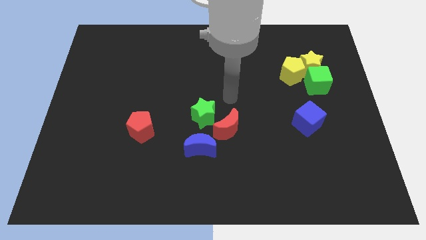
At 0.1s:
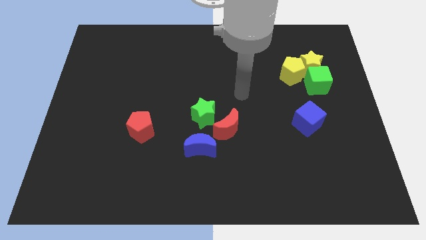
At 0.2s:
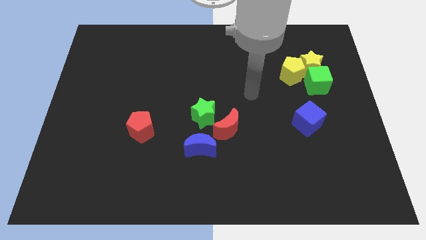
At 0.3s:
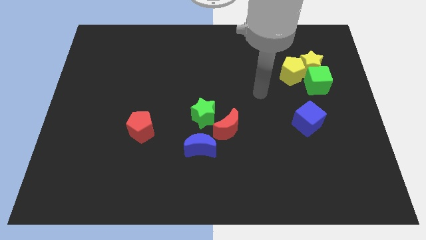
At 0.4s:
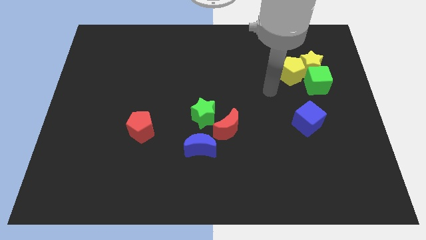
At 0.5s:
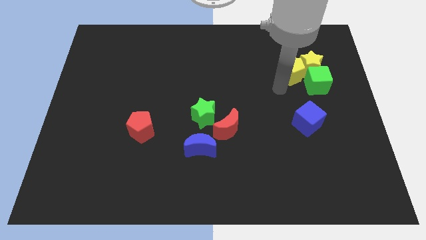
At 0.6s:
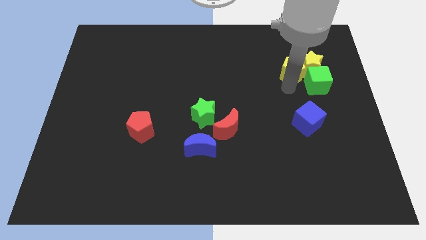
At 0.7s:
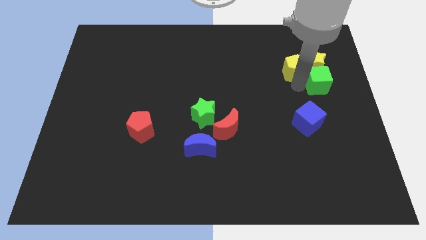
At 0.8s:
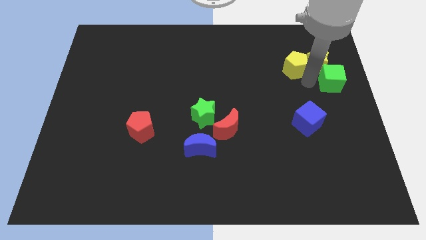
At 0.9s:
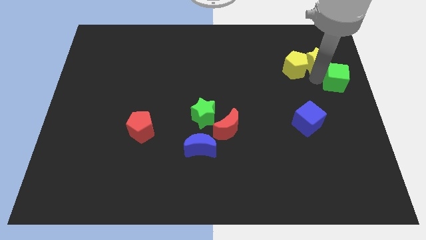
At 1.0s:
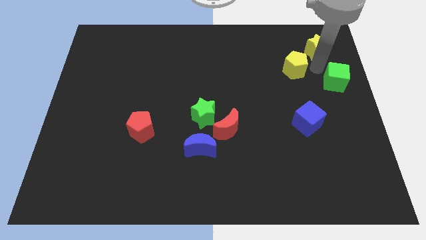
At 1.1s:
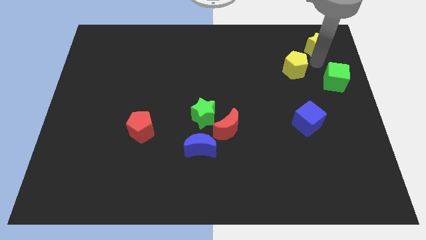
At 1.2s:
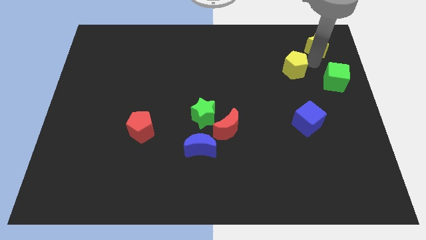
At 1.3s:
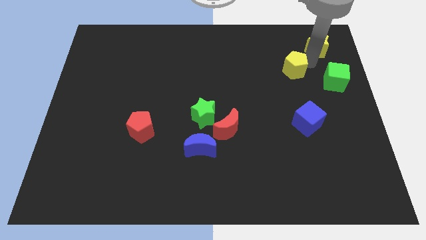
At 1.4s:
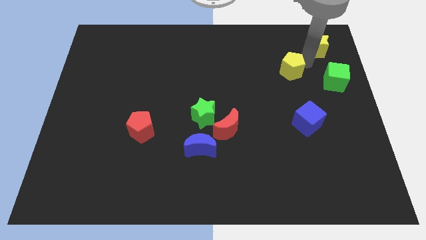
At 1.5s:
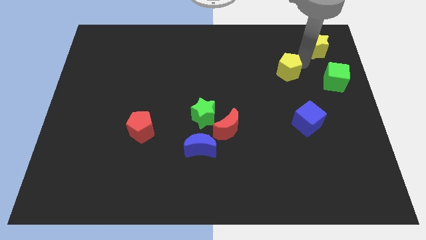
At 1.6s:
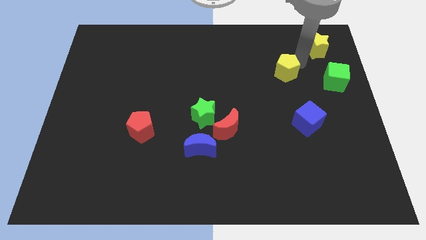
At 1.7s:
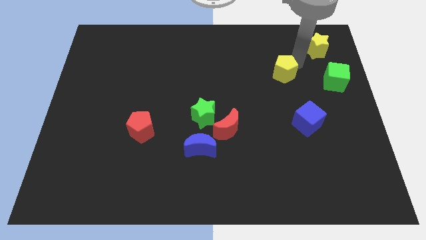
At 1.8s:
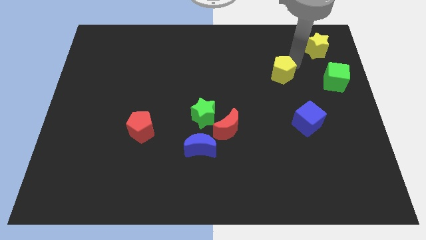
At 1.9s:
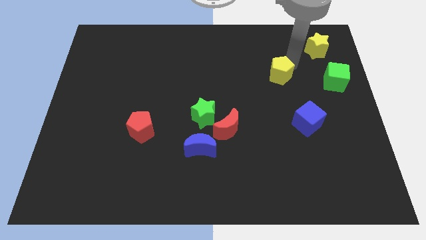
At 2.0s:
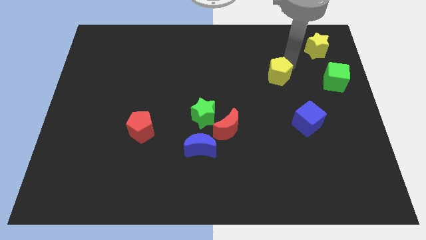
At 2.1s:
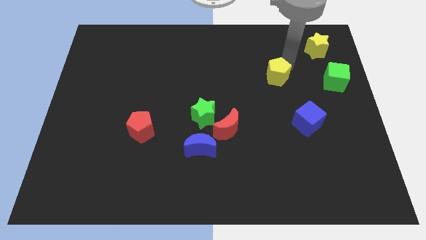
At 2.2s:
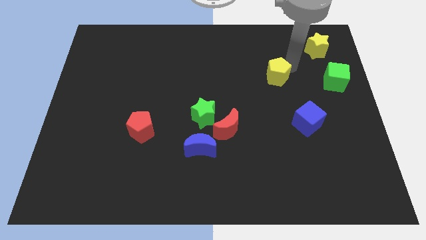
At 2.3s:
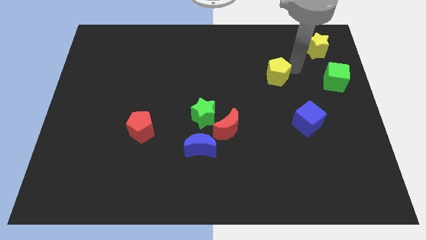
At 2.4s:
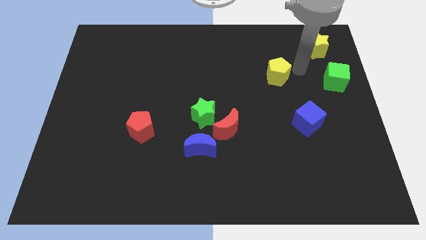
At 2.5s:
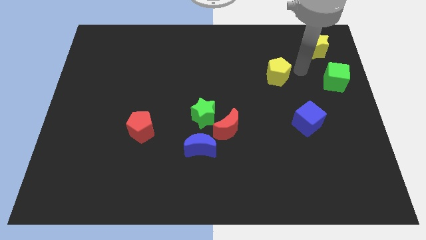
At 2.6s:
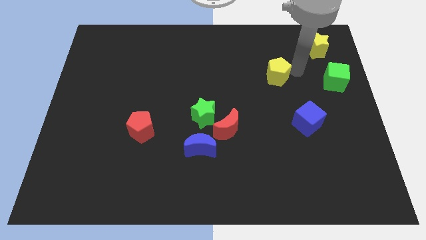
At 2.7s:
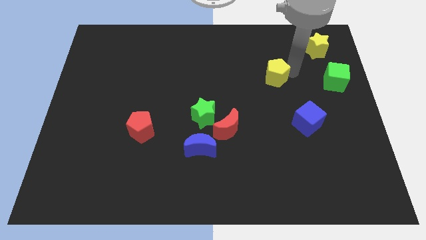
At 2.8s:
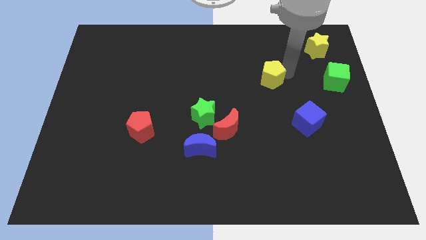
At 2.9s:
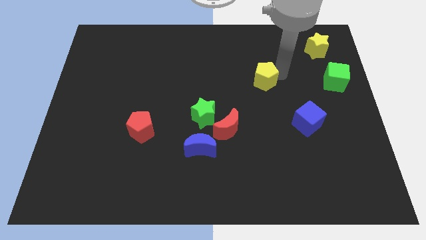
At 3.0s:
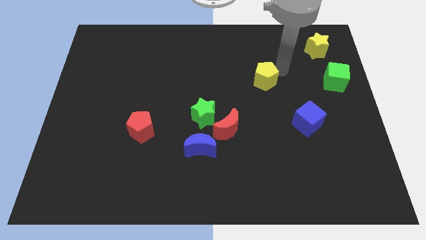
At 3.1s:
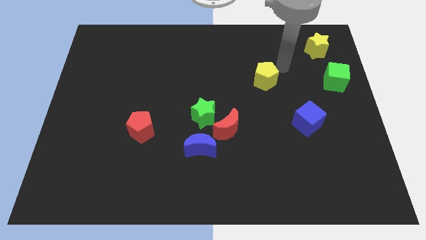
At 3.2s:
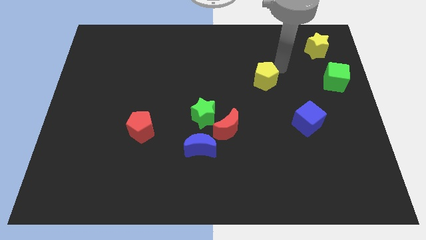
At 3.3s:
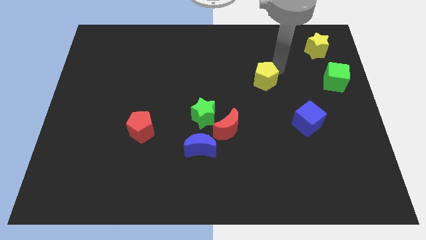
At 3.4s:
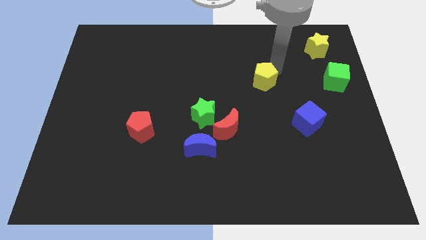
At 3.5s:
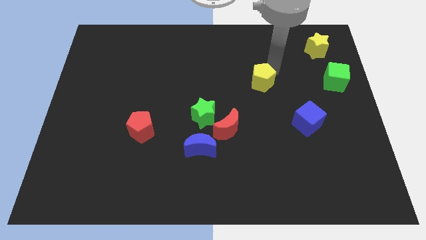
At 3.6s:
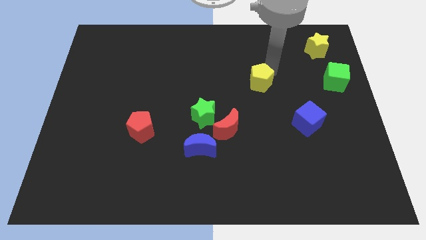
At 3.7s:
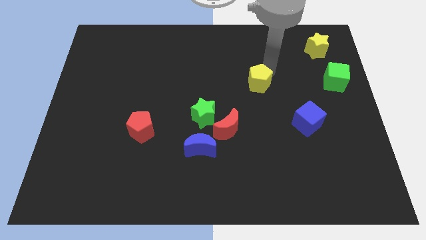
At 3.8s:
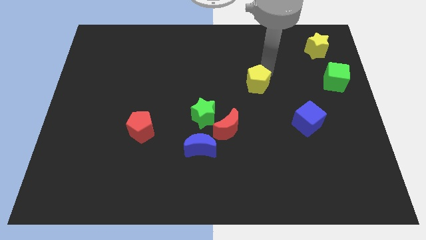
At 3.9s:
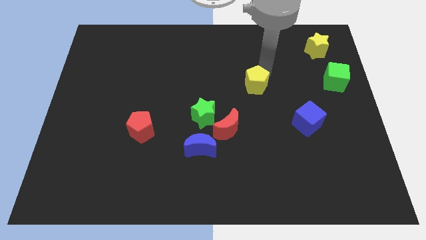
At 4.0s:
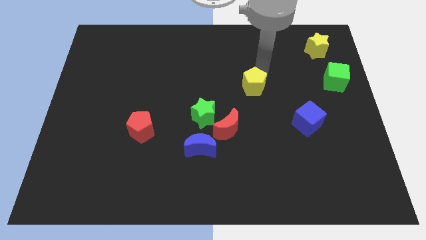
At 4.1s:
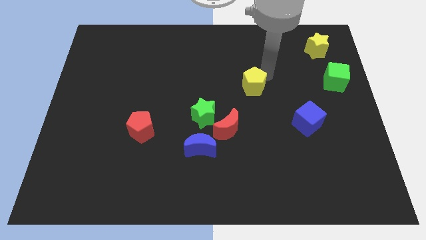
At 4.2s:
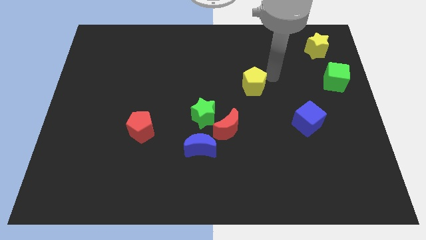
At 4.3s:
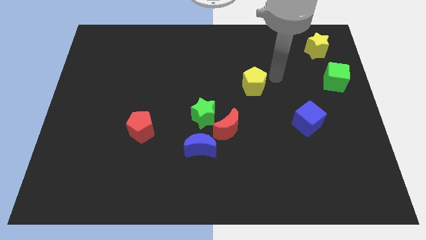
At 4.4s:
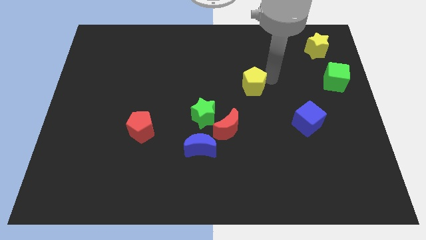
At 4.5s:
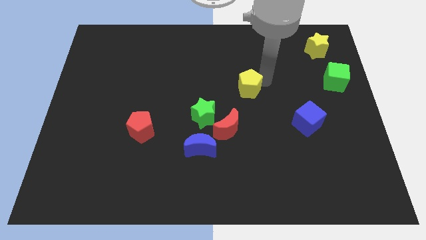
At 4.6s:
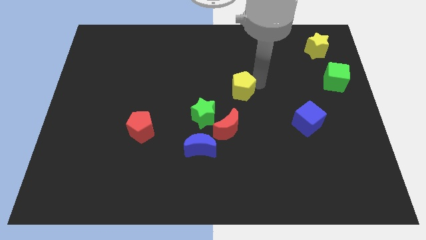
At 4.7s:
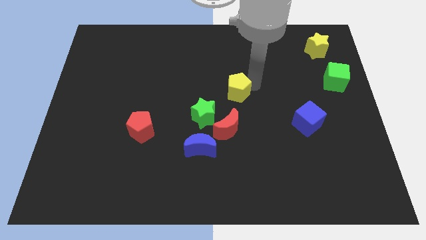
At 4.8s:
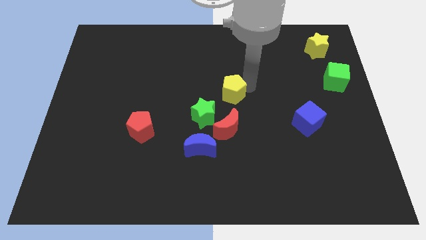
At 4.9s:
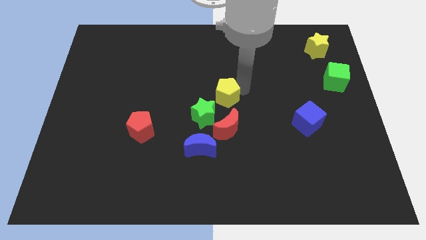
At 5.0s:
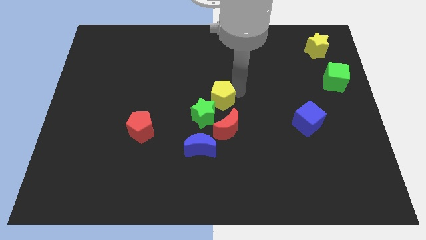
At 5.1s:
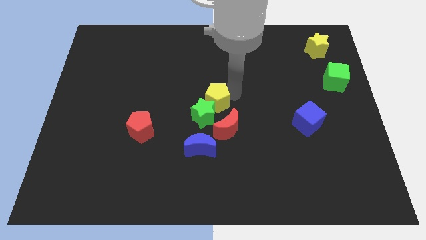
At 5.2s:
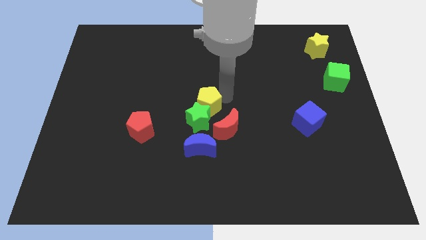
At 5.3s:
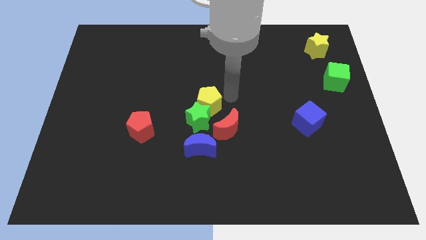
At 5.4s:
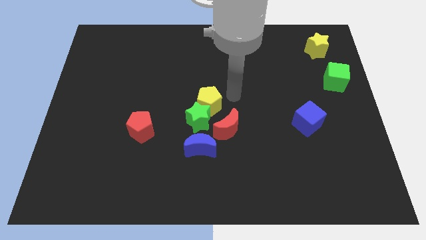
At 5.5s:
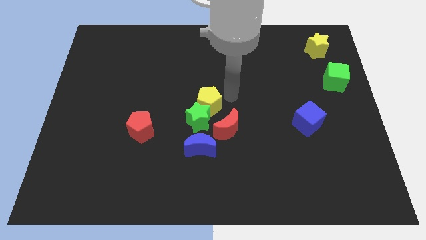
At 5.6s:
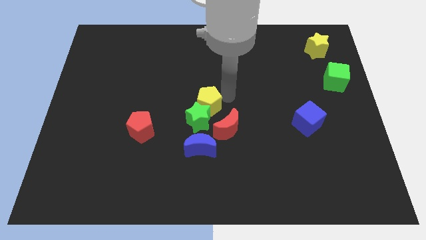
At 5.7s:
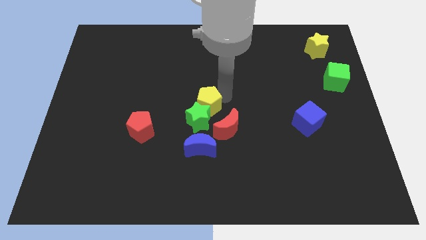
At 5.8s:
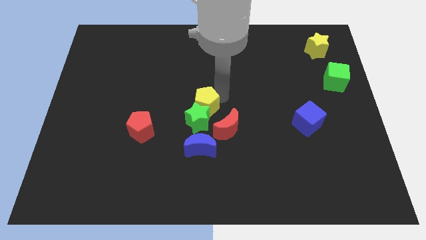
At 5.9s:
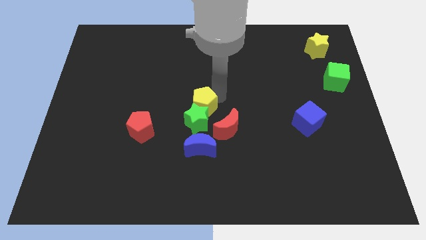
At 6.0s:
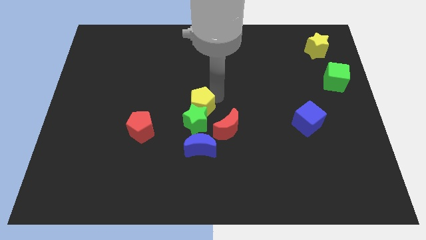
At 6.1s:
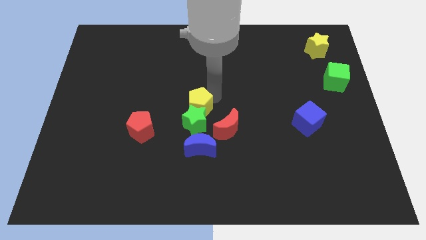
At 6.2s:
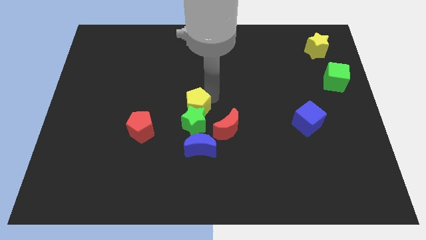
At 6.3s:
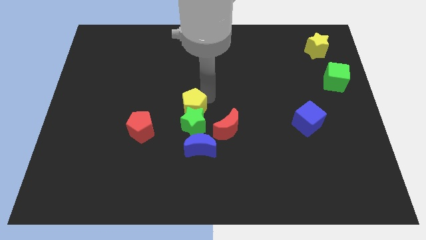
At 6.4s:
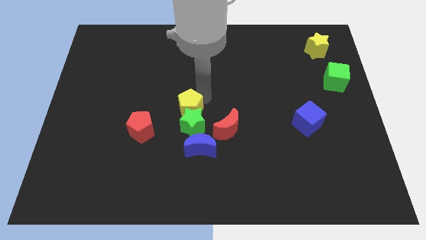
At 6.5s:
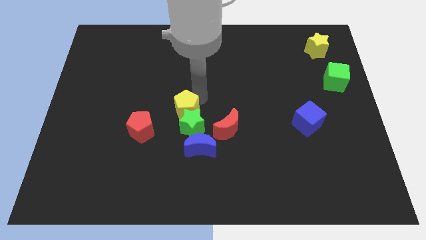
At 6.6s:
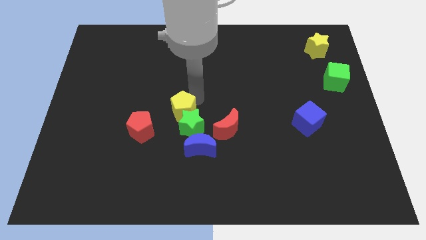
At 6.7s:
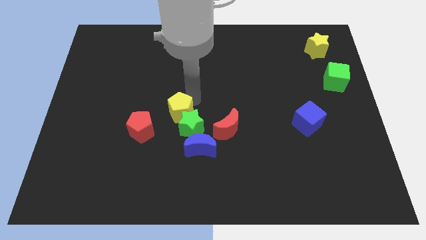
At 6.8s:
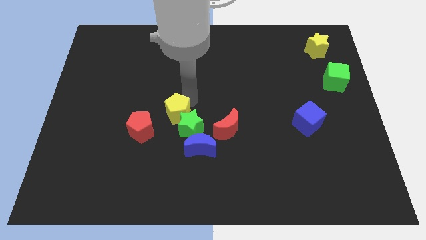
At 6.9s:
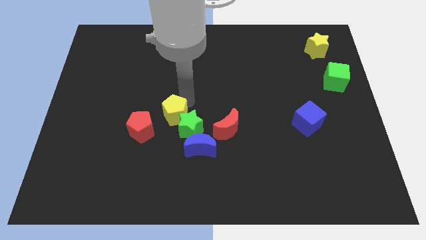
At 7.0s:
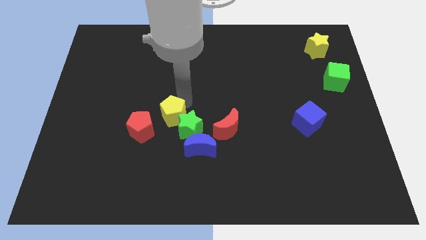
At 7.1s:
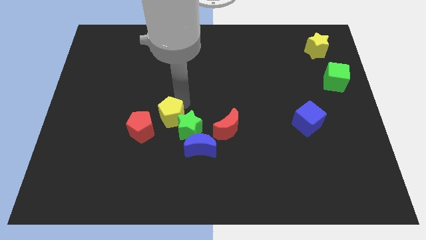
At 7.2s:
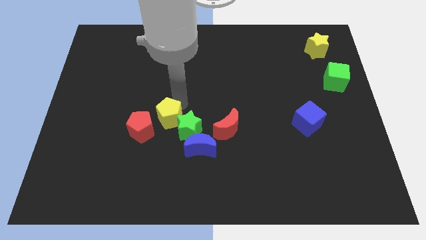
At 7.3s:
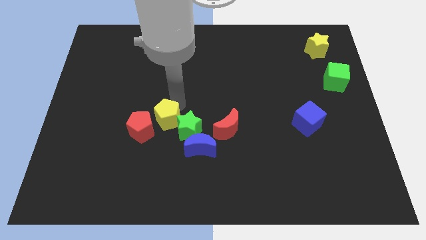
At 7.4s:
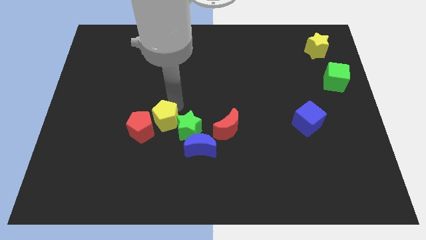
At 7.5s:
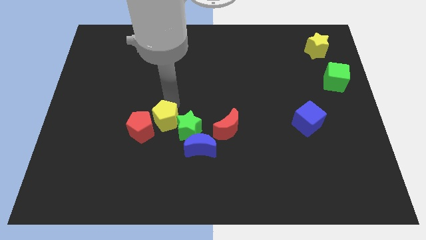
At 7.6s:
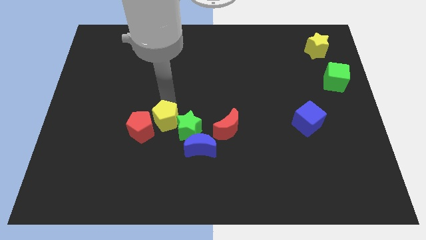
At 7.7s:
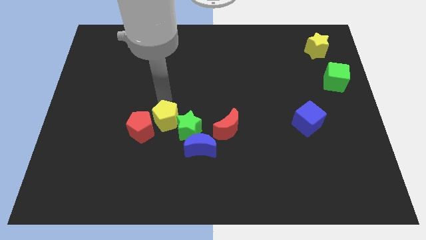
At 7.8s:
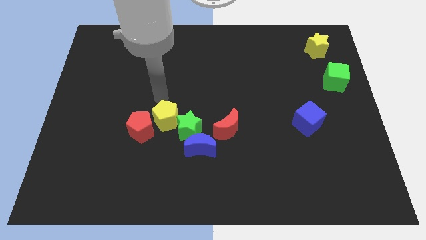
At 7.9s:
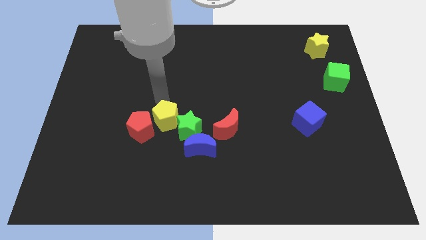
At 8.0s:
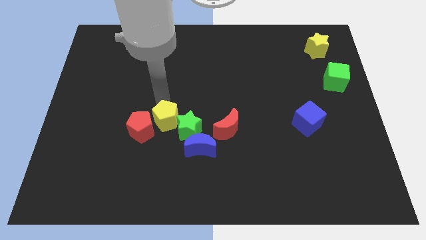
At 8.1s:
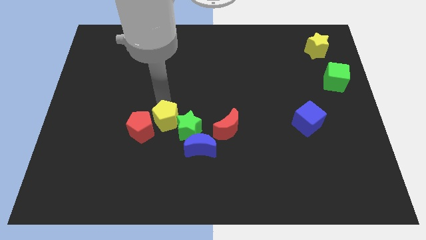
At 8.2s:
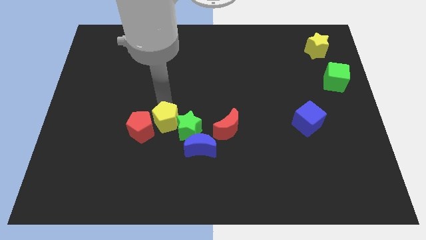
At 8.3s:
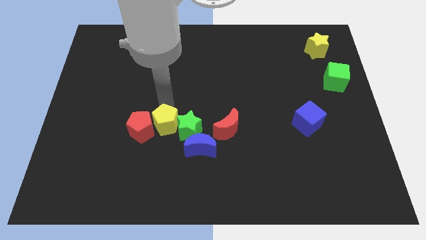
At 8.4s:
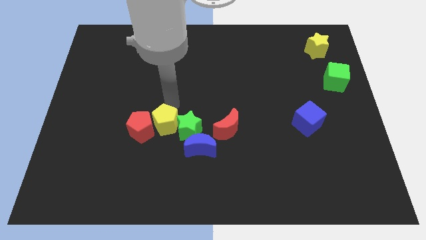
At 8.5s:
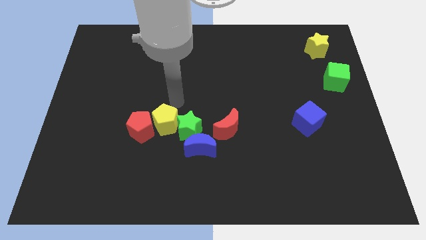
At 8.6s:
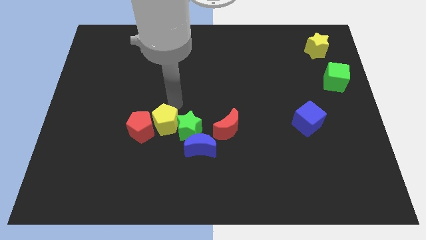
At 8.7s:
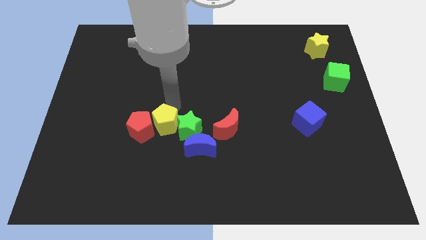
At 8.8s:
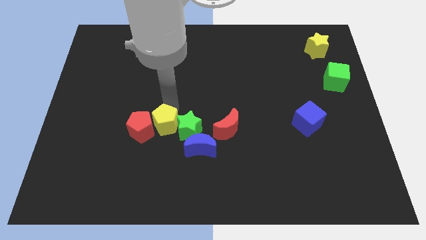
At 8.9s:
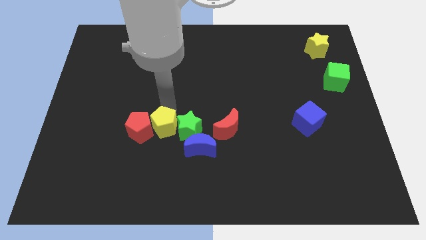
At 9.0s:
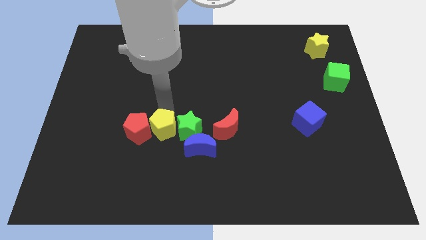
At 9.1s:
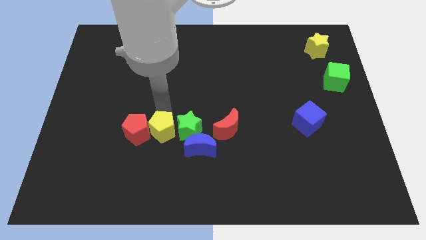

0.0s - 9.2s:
slide the yellow pentagon to the left of the blue moon
